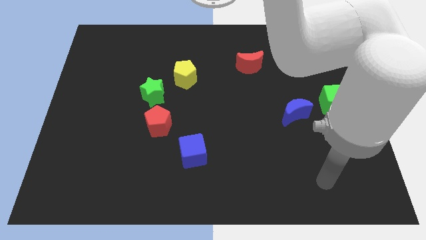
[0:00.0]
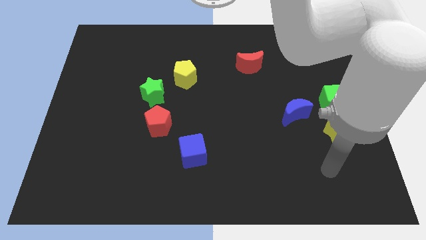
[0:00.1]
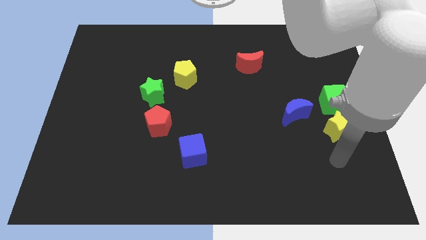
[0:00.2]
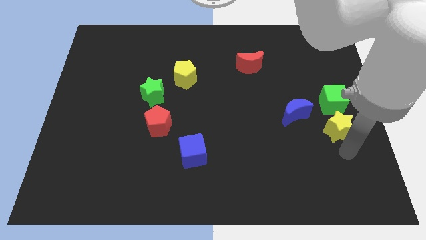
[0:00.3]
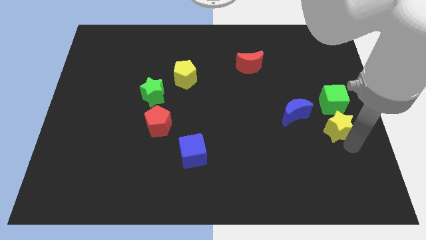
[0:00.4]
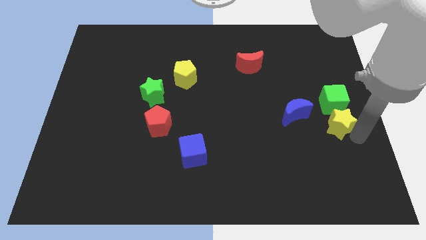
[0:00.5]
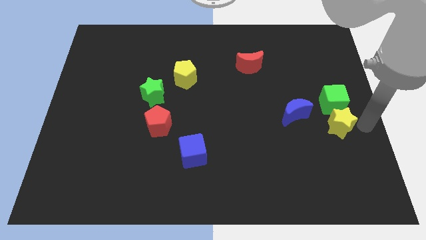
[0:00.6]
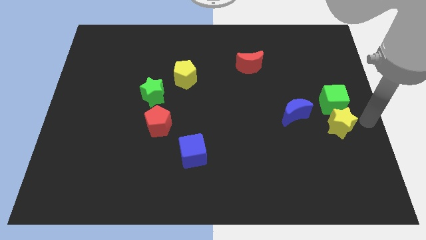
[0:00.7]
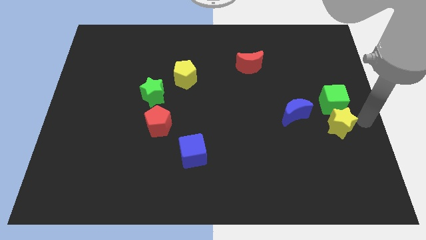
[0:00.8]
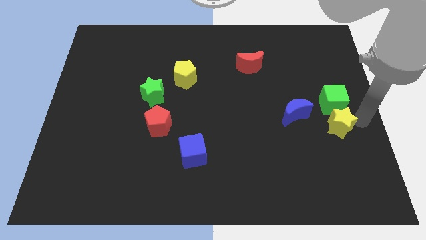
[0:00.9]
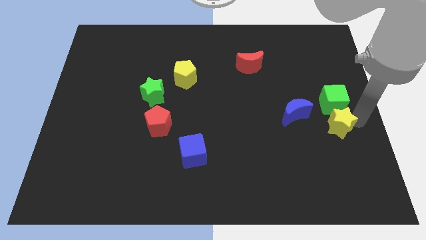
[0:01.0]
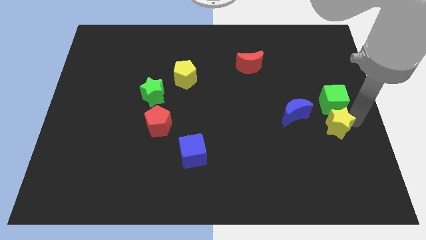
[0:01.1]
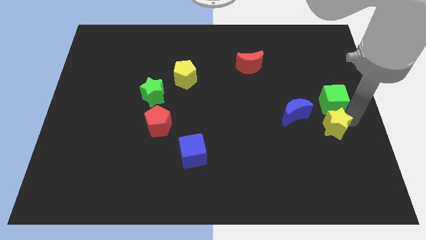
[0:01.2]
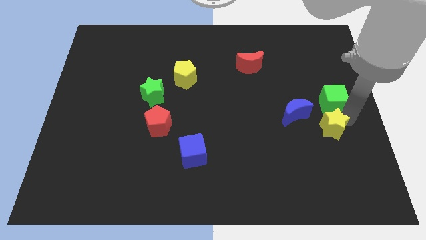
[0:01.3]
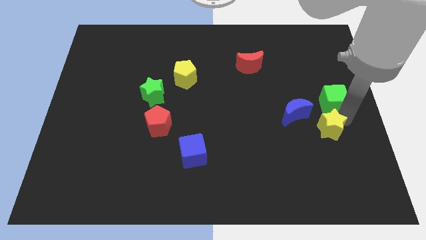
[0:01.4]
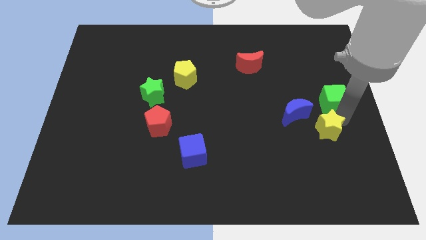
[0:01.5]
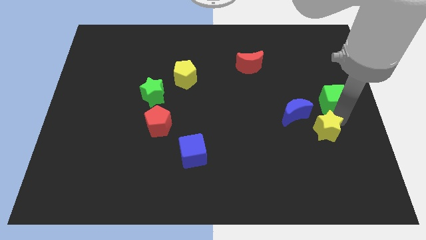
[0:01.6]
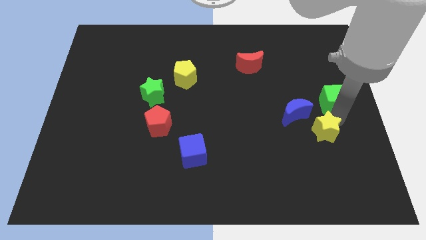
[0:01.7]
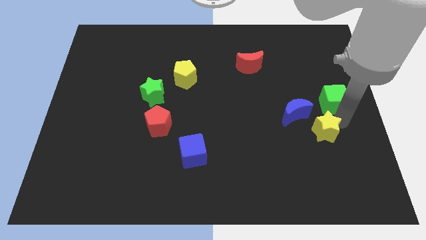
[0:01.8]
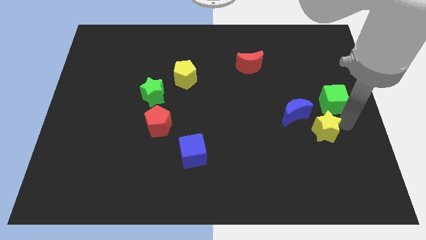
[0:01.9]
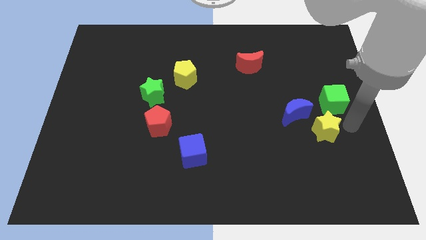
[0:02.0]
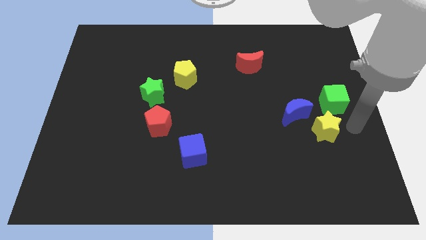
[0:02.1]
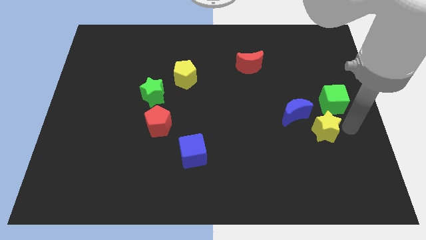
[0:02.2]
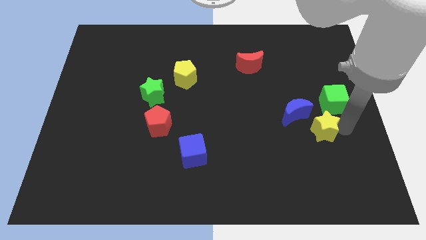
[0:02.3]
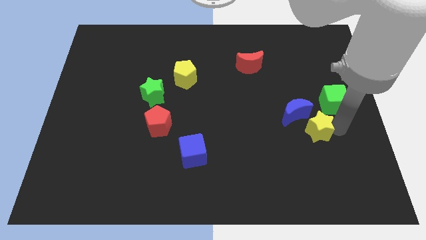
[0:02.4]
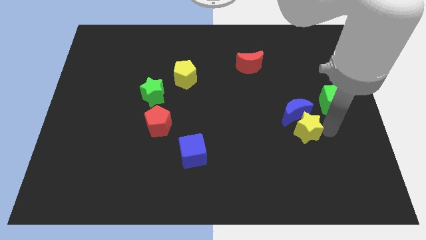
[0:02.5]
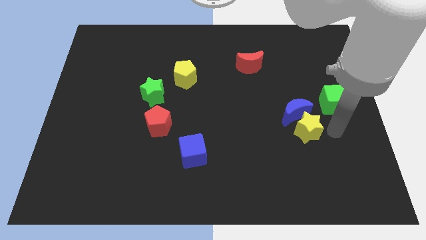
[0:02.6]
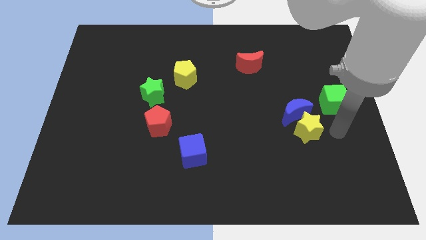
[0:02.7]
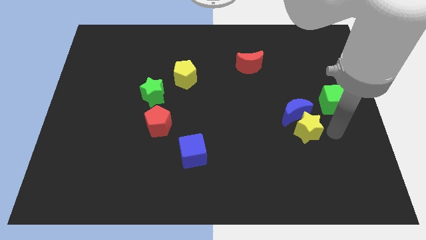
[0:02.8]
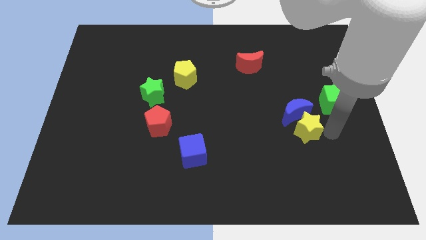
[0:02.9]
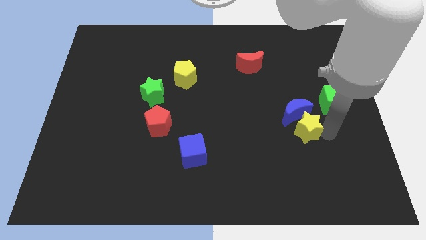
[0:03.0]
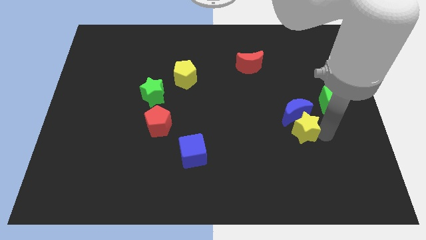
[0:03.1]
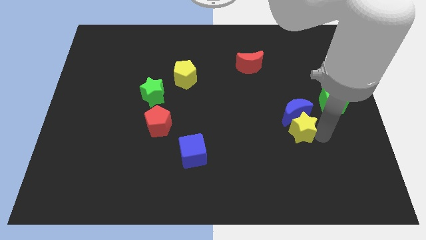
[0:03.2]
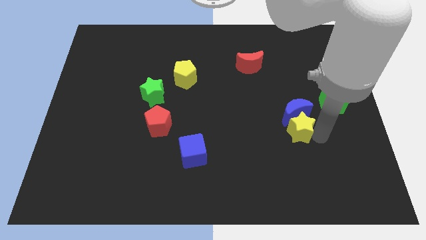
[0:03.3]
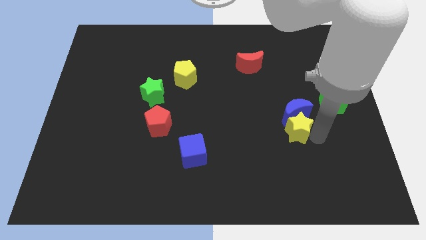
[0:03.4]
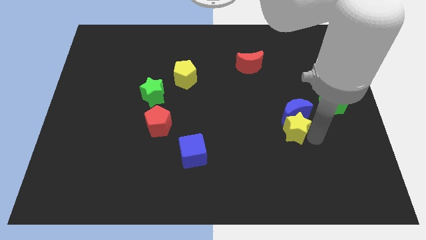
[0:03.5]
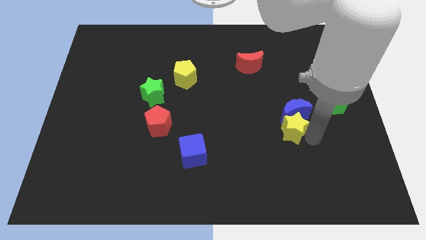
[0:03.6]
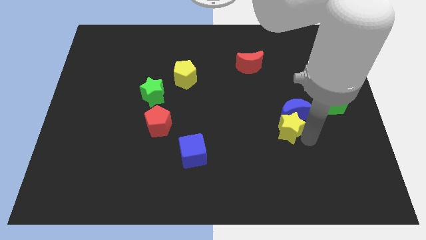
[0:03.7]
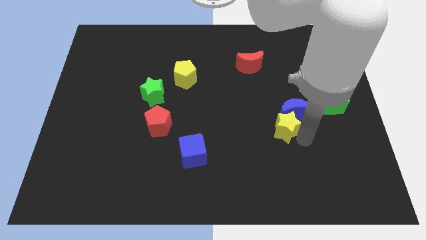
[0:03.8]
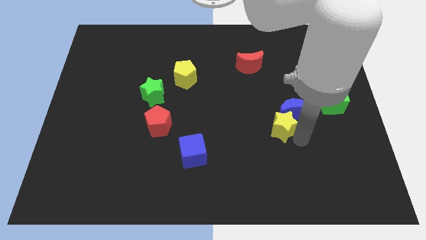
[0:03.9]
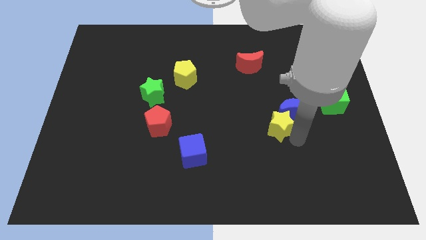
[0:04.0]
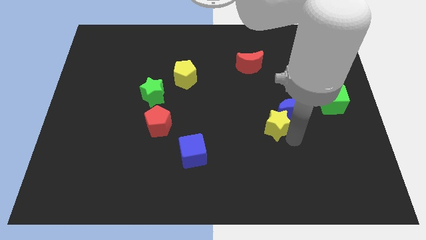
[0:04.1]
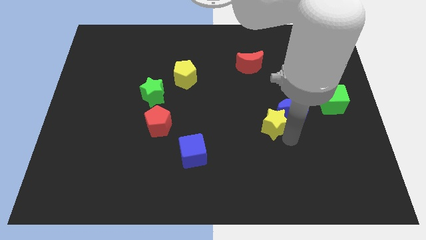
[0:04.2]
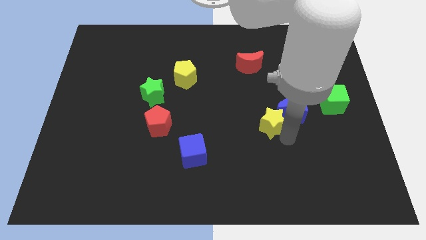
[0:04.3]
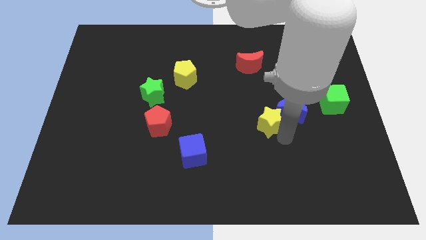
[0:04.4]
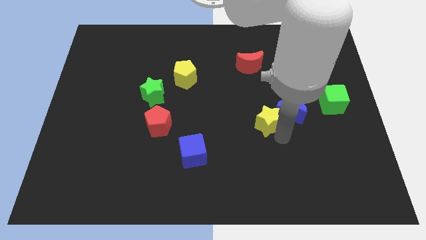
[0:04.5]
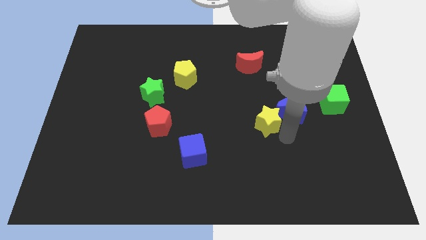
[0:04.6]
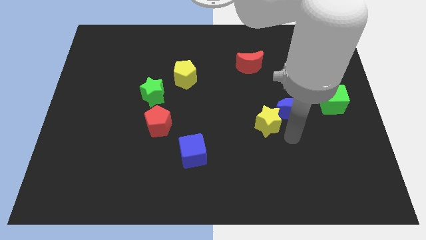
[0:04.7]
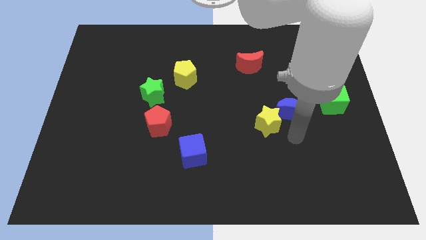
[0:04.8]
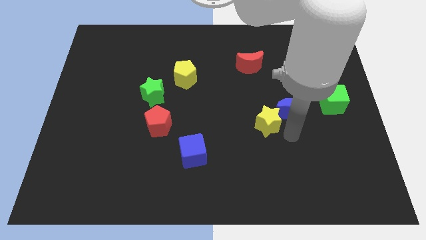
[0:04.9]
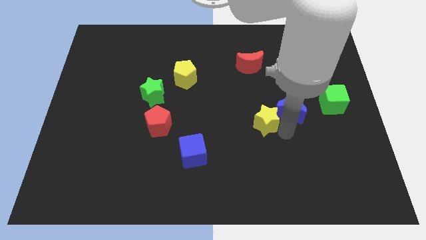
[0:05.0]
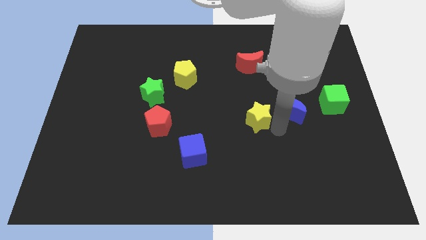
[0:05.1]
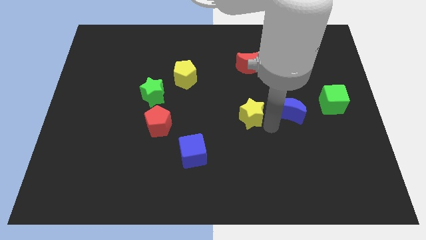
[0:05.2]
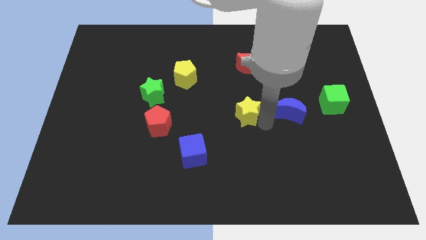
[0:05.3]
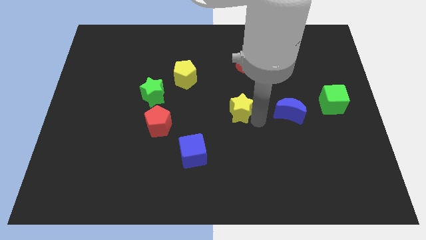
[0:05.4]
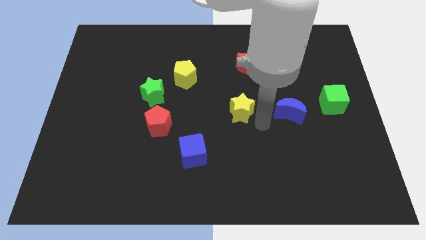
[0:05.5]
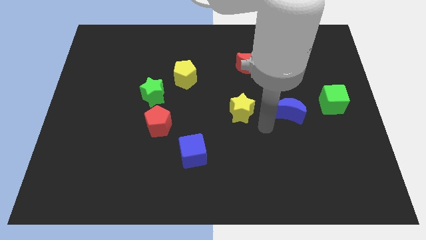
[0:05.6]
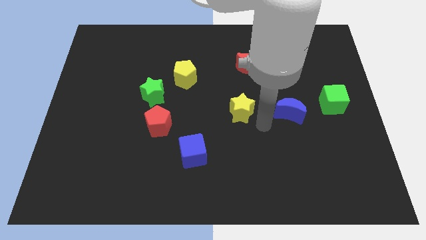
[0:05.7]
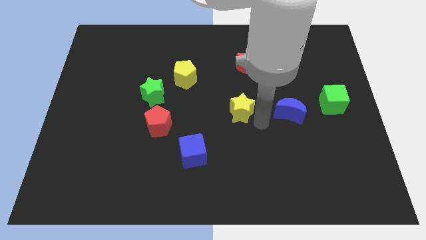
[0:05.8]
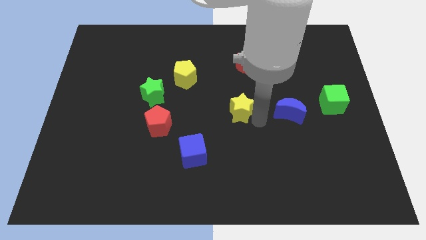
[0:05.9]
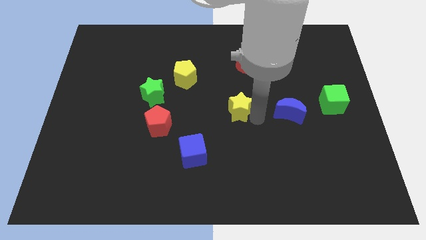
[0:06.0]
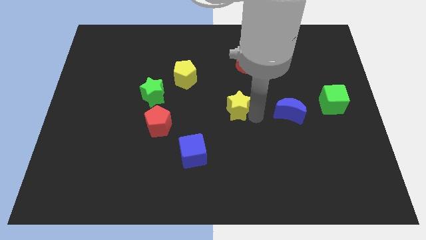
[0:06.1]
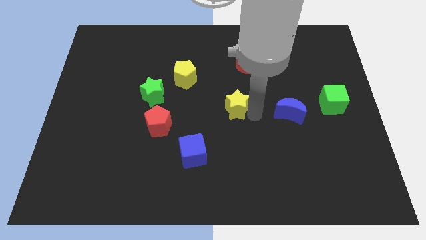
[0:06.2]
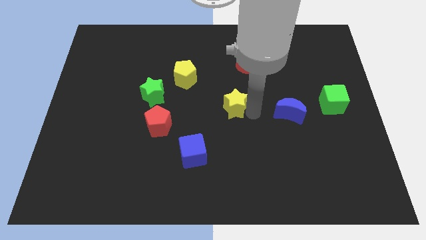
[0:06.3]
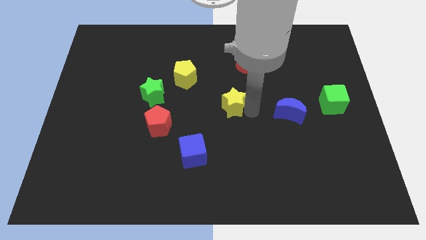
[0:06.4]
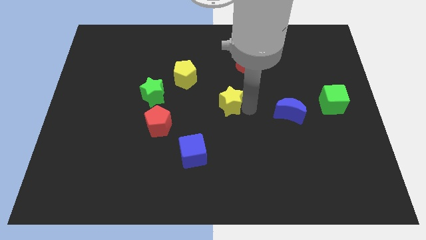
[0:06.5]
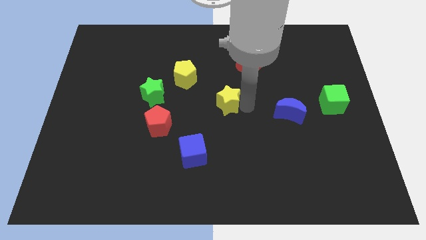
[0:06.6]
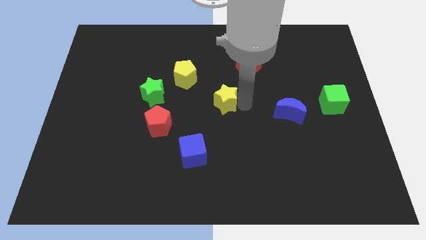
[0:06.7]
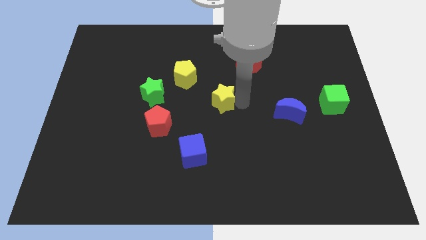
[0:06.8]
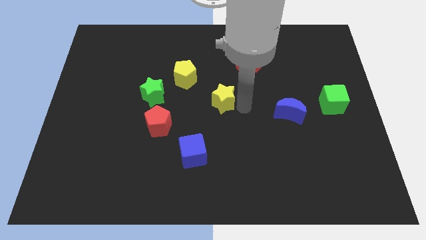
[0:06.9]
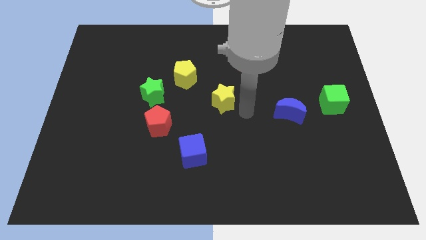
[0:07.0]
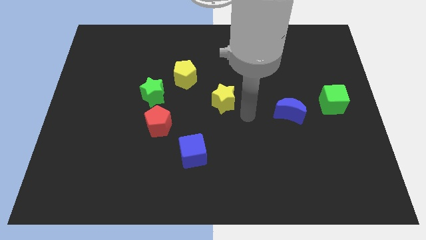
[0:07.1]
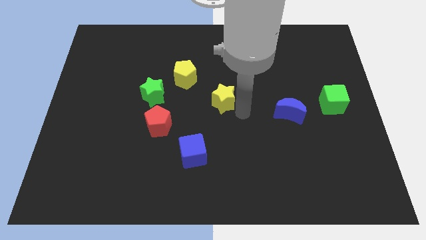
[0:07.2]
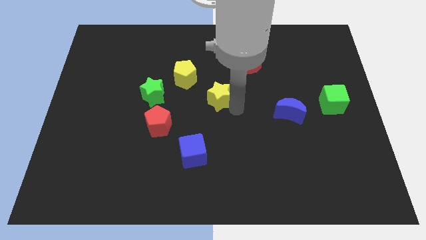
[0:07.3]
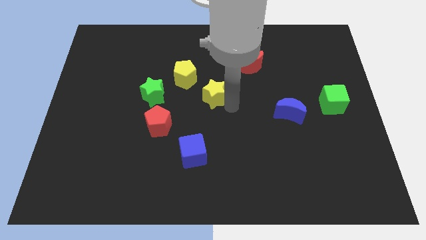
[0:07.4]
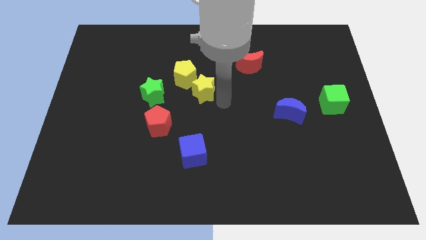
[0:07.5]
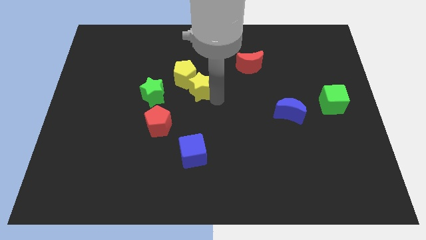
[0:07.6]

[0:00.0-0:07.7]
push the yellow star towards the yellow pentagon
